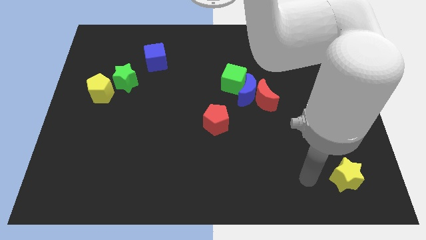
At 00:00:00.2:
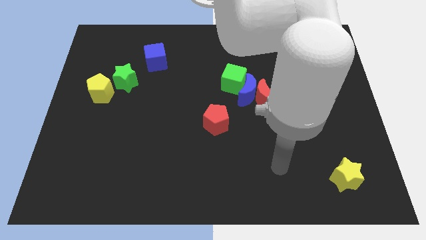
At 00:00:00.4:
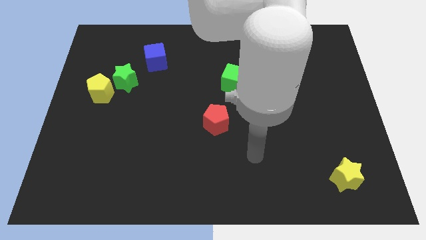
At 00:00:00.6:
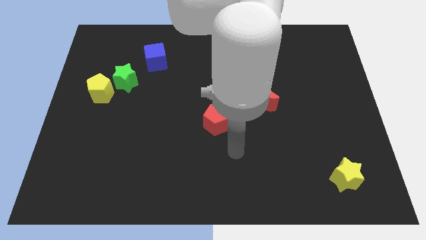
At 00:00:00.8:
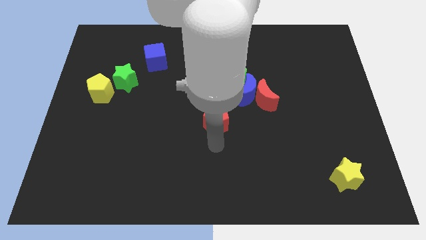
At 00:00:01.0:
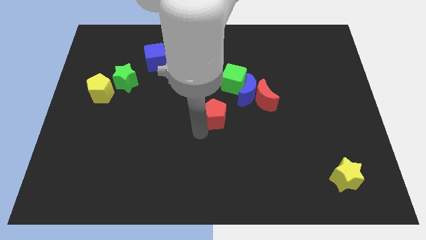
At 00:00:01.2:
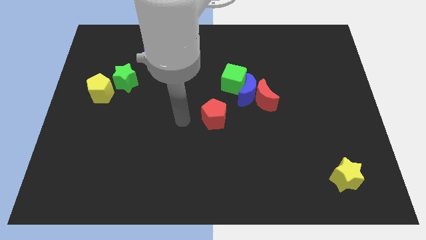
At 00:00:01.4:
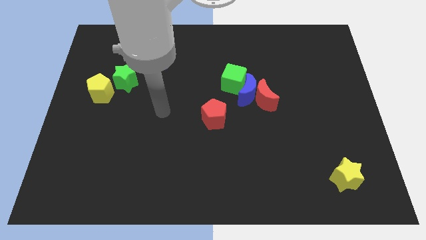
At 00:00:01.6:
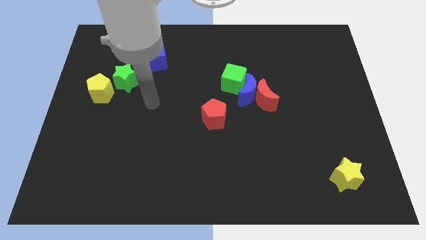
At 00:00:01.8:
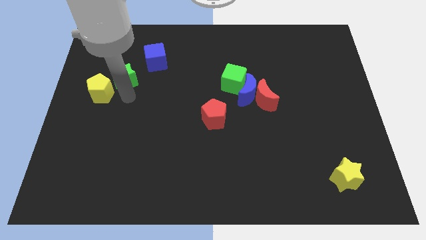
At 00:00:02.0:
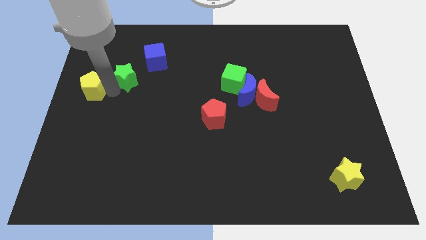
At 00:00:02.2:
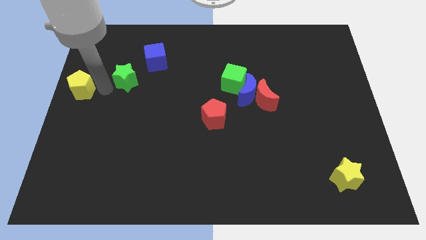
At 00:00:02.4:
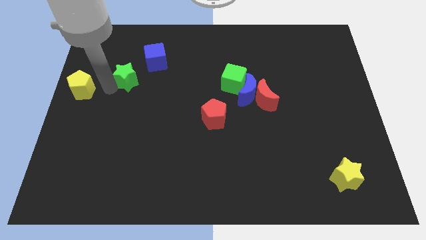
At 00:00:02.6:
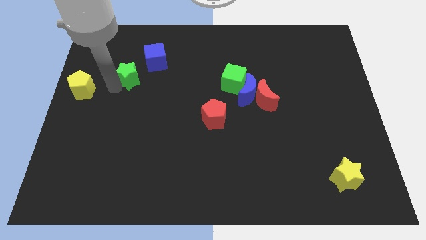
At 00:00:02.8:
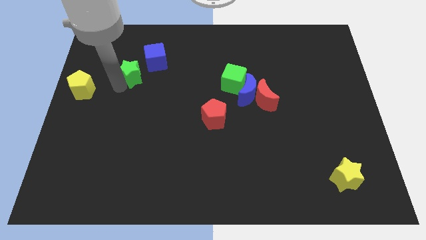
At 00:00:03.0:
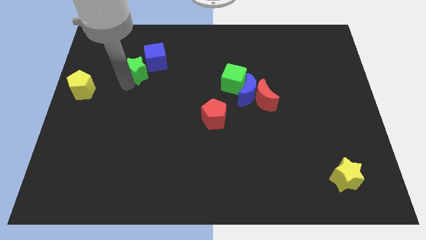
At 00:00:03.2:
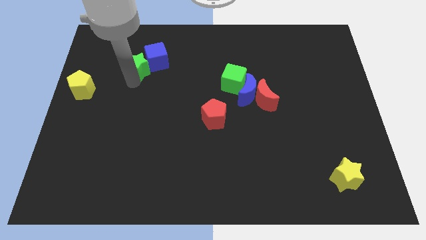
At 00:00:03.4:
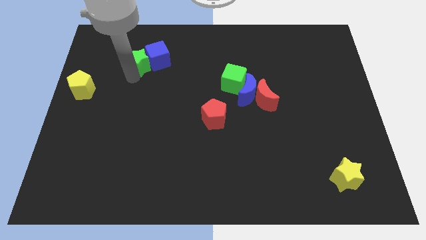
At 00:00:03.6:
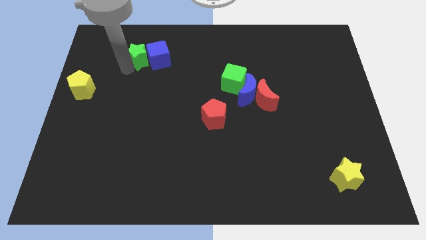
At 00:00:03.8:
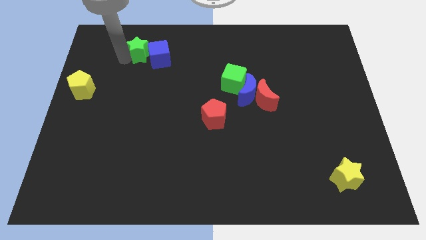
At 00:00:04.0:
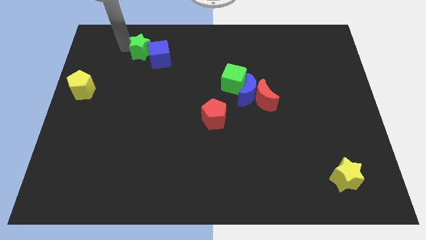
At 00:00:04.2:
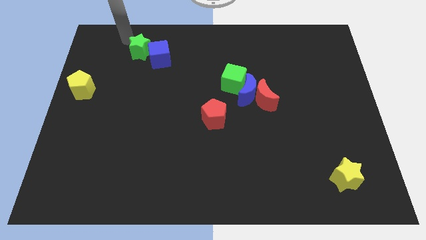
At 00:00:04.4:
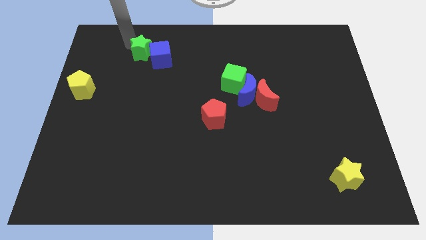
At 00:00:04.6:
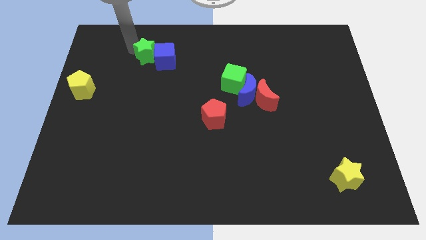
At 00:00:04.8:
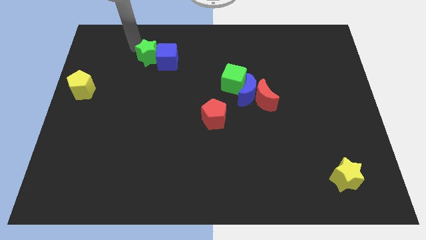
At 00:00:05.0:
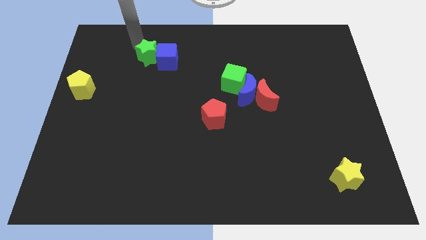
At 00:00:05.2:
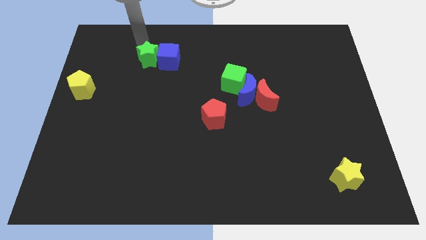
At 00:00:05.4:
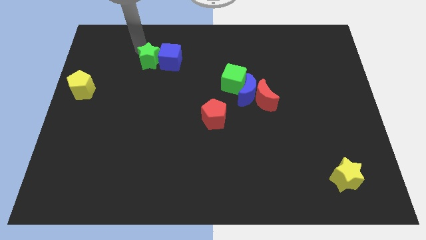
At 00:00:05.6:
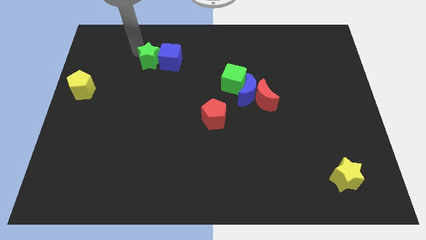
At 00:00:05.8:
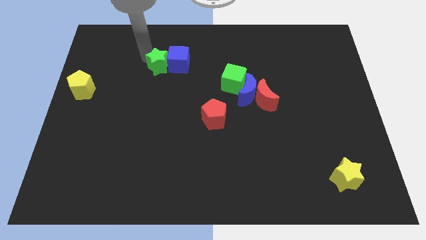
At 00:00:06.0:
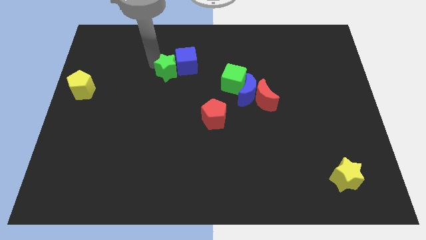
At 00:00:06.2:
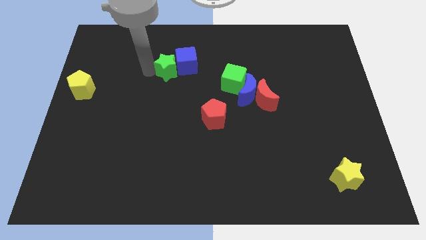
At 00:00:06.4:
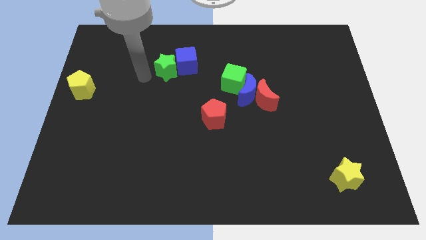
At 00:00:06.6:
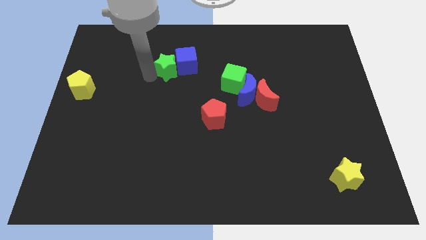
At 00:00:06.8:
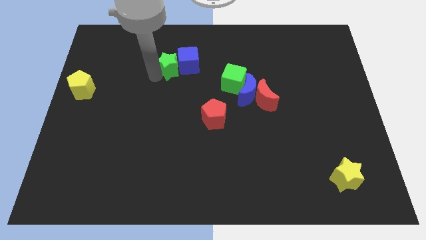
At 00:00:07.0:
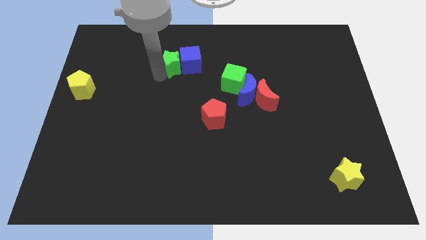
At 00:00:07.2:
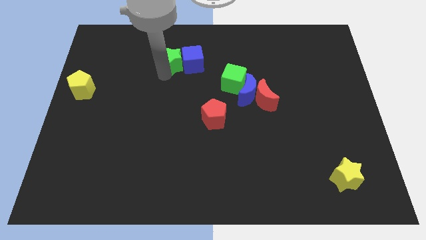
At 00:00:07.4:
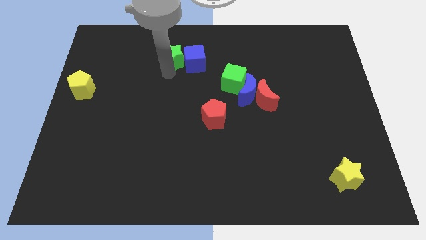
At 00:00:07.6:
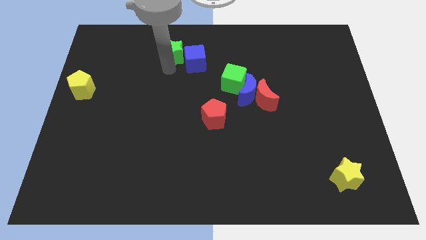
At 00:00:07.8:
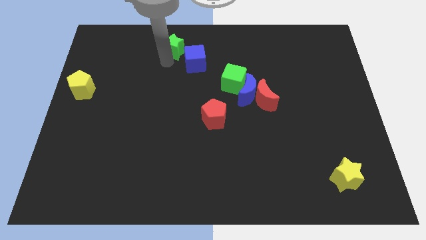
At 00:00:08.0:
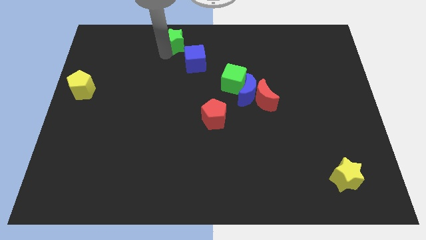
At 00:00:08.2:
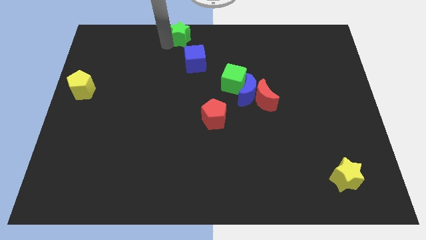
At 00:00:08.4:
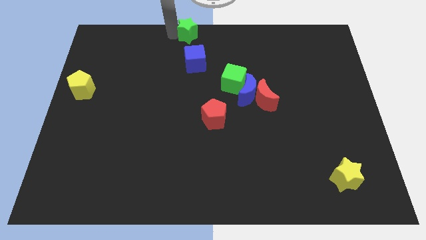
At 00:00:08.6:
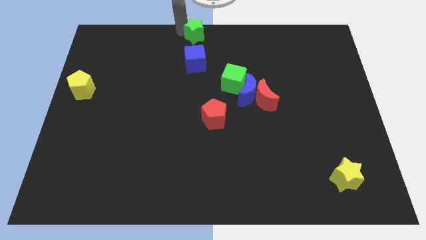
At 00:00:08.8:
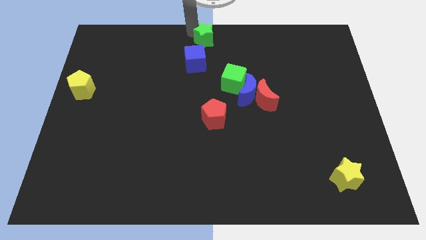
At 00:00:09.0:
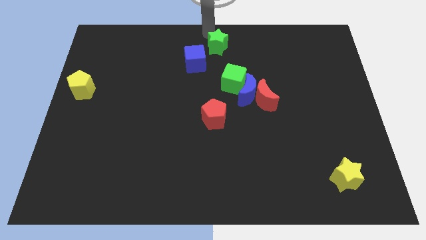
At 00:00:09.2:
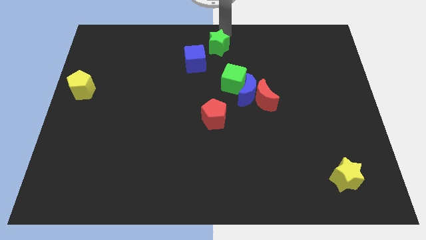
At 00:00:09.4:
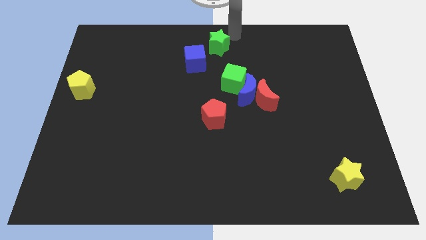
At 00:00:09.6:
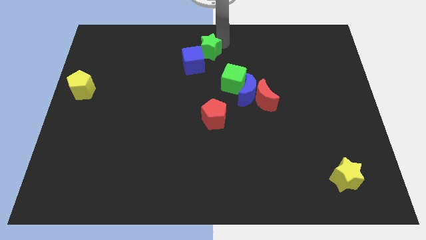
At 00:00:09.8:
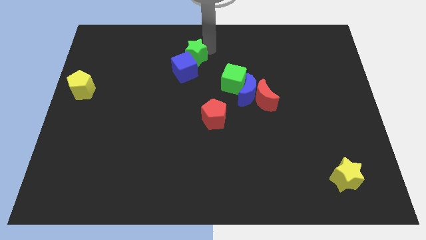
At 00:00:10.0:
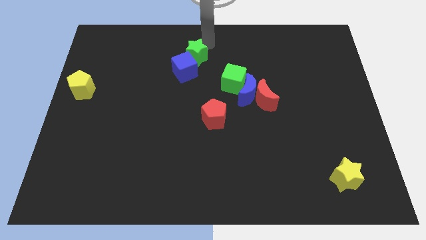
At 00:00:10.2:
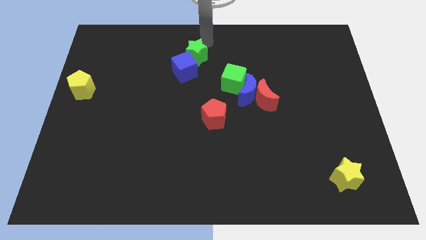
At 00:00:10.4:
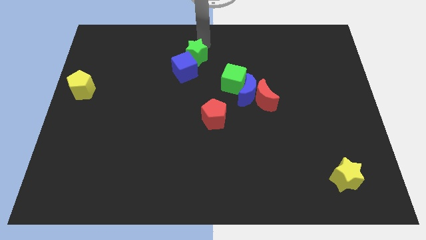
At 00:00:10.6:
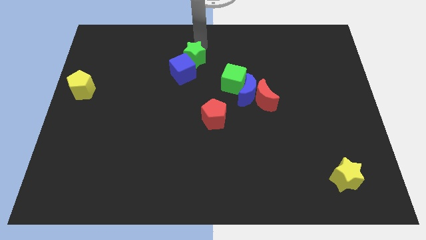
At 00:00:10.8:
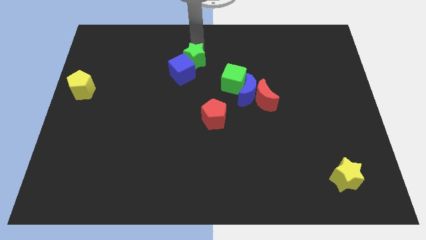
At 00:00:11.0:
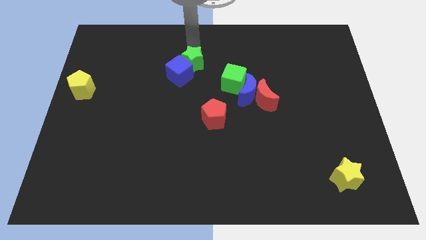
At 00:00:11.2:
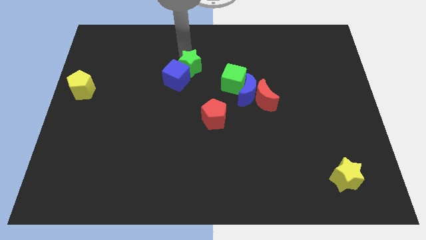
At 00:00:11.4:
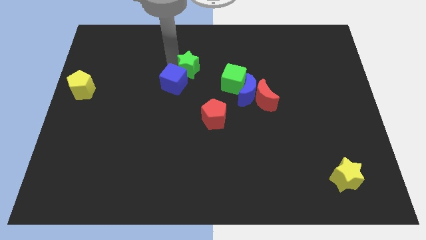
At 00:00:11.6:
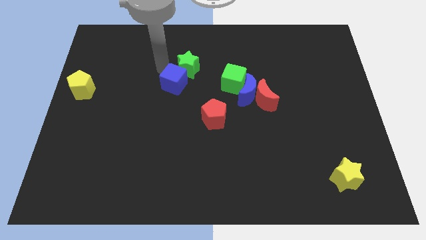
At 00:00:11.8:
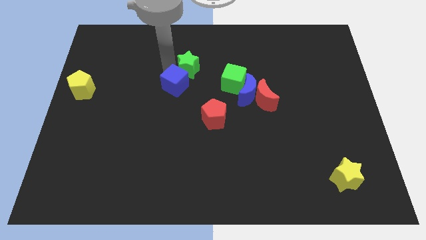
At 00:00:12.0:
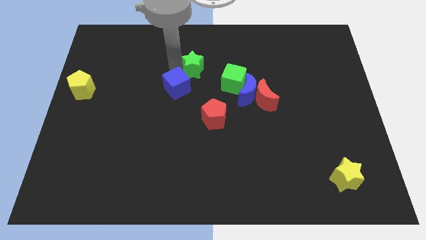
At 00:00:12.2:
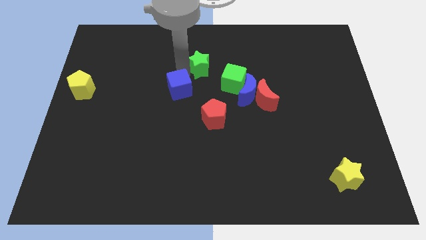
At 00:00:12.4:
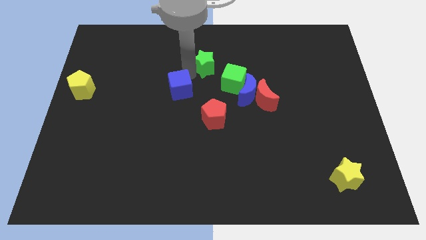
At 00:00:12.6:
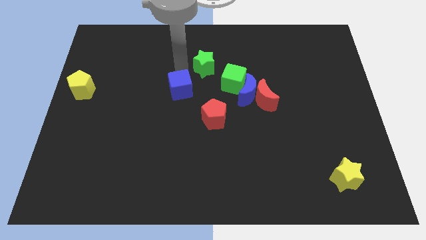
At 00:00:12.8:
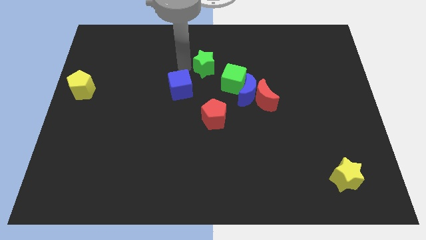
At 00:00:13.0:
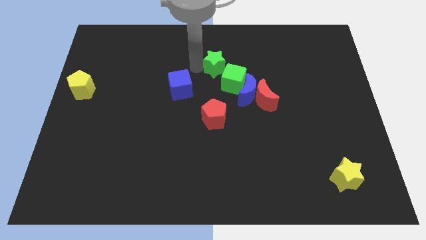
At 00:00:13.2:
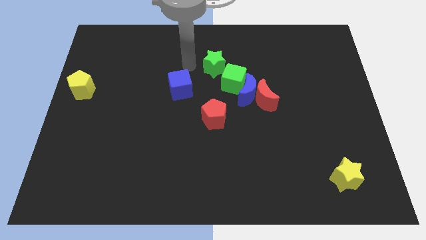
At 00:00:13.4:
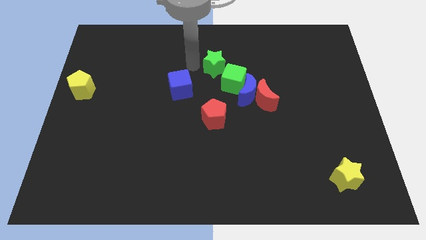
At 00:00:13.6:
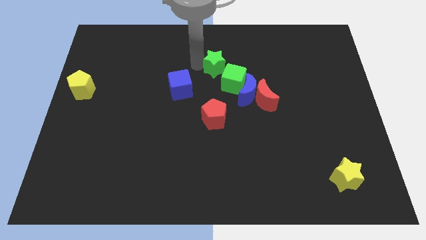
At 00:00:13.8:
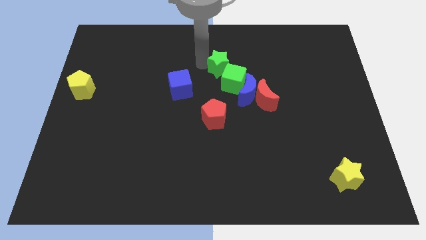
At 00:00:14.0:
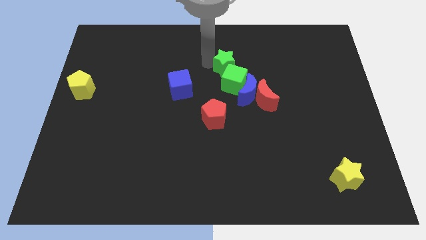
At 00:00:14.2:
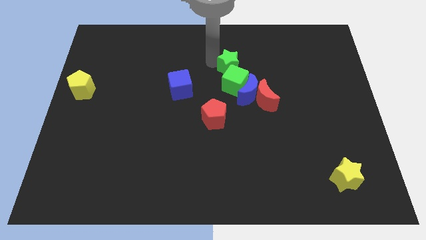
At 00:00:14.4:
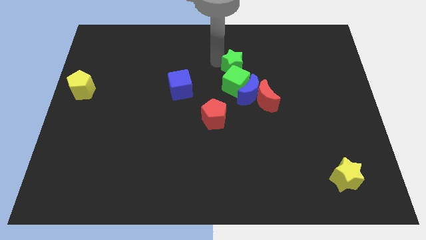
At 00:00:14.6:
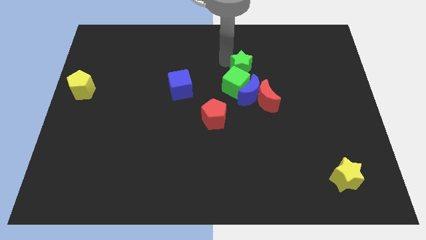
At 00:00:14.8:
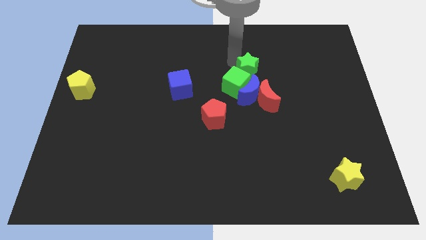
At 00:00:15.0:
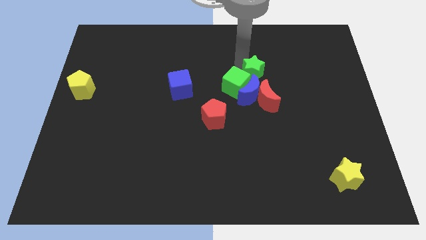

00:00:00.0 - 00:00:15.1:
put the green star just right of the green cube
